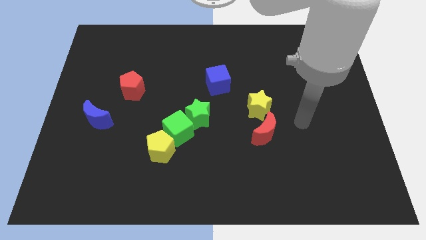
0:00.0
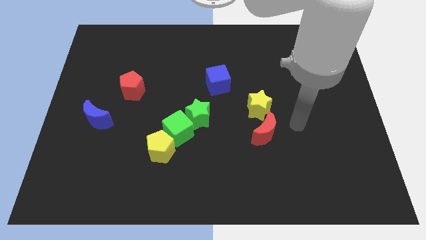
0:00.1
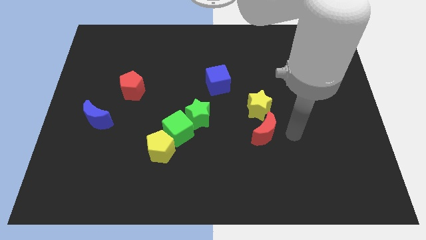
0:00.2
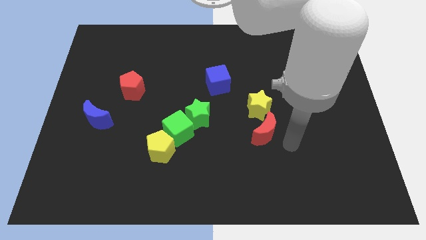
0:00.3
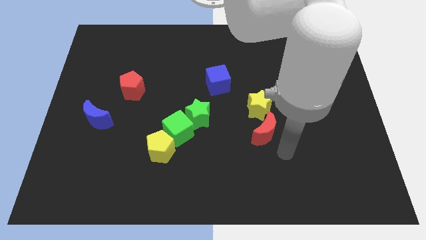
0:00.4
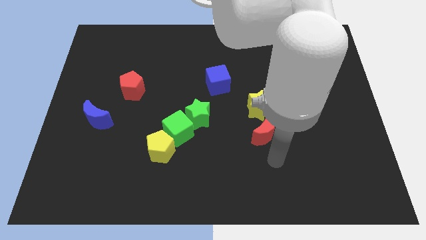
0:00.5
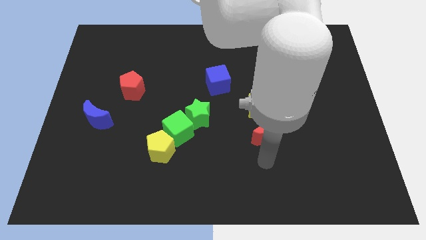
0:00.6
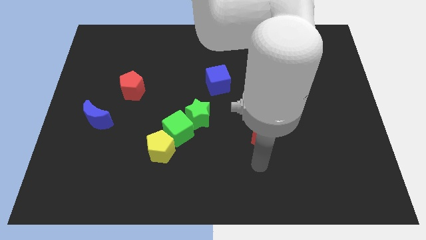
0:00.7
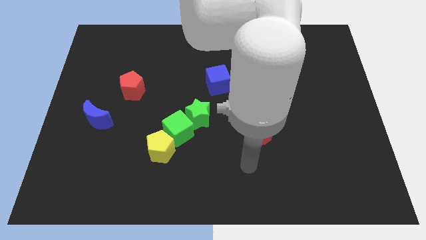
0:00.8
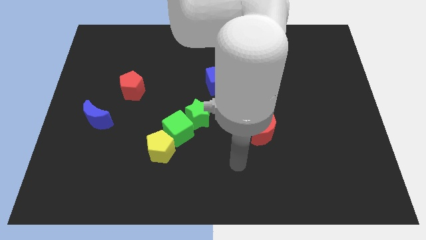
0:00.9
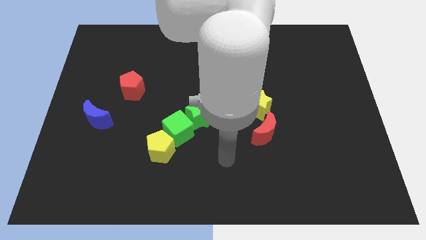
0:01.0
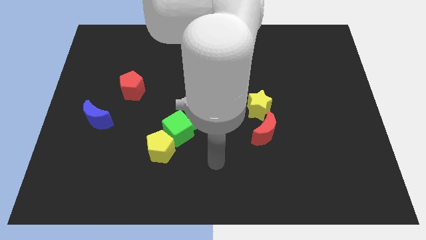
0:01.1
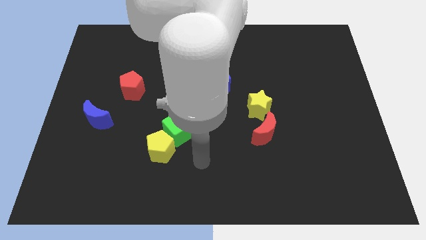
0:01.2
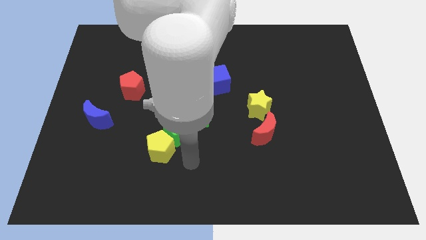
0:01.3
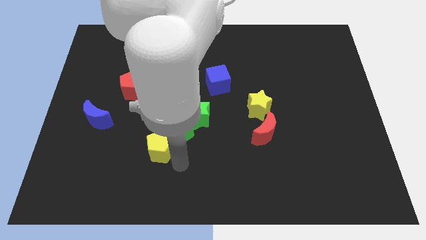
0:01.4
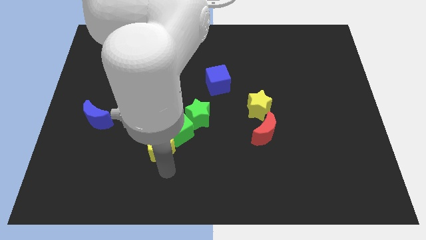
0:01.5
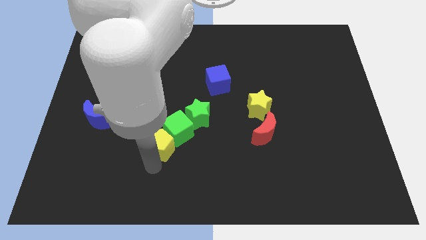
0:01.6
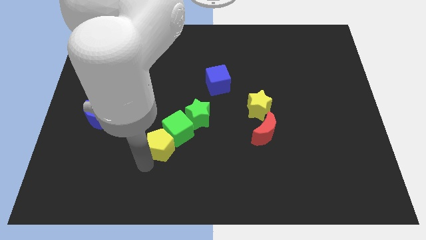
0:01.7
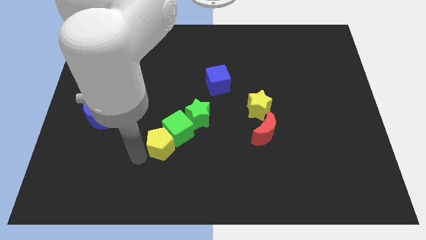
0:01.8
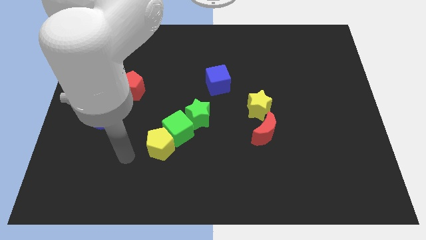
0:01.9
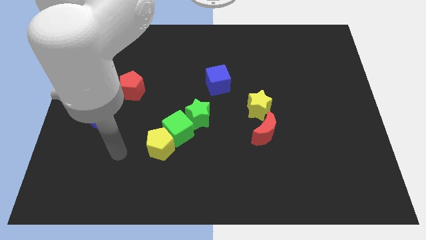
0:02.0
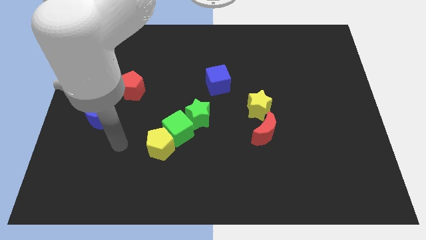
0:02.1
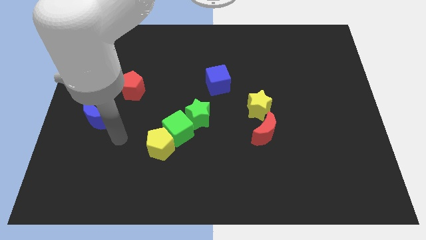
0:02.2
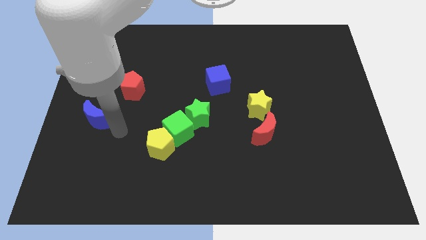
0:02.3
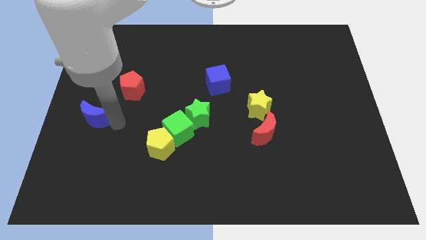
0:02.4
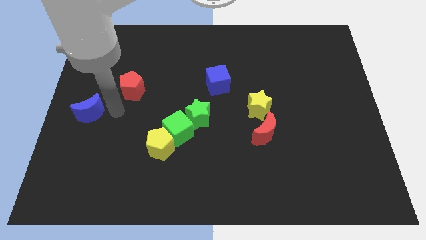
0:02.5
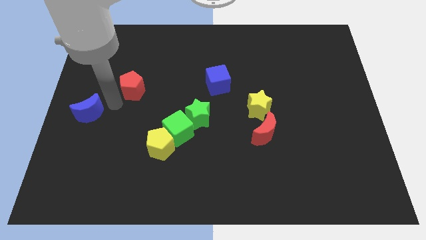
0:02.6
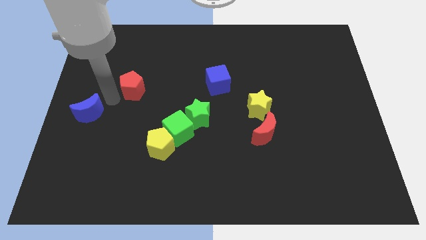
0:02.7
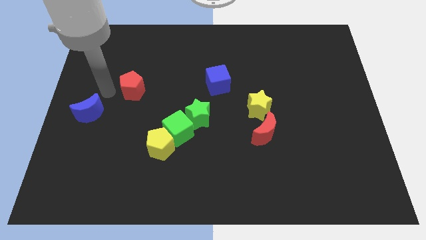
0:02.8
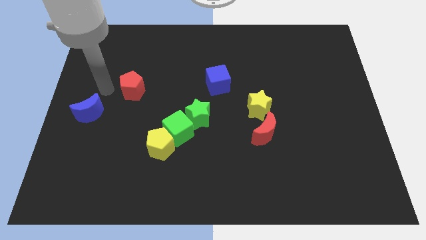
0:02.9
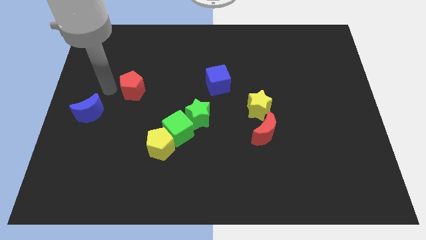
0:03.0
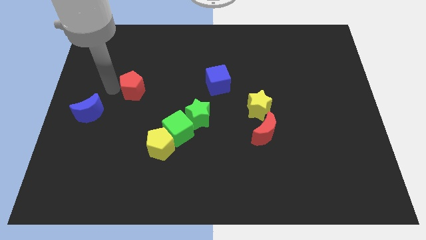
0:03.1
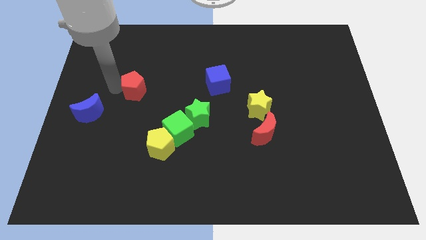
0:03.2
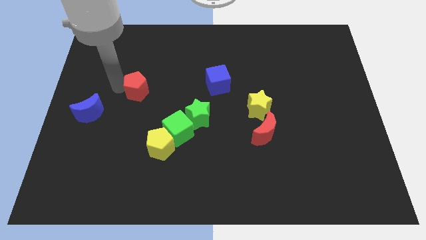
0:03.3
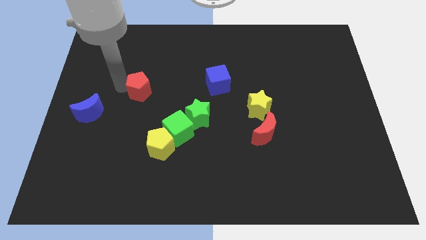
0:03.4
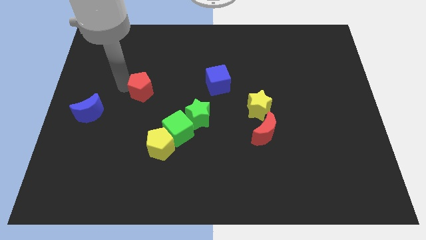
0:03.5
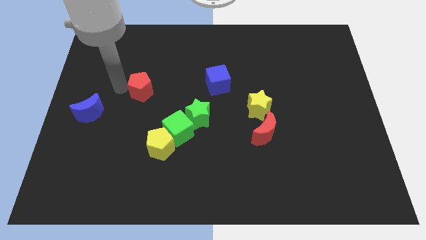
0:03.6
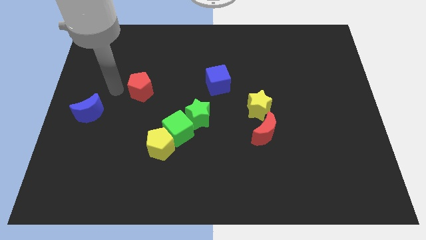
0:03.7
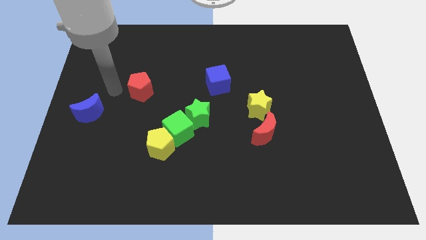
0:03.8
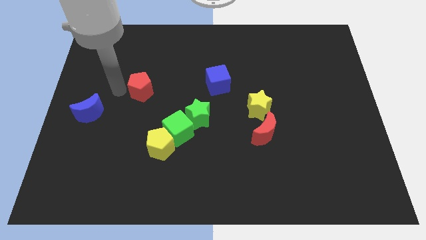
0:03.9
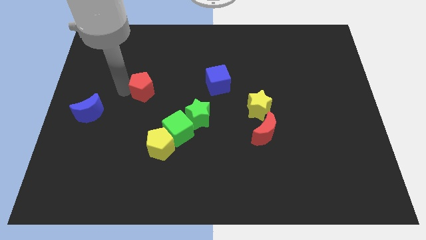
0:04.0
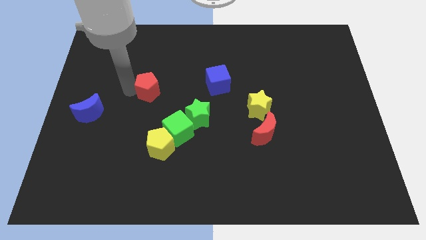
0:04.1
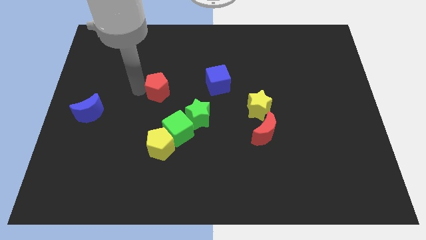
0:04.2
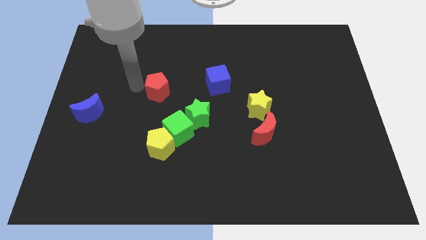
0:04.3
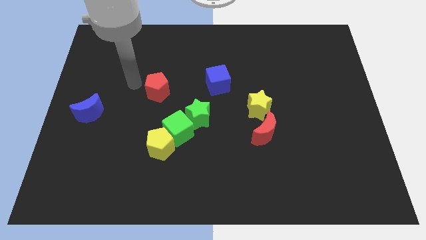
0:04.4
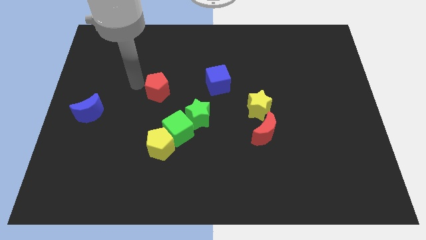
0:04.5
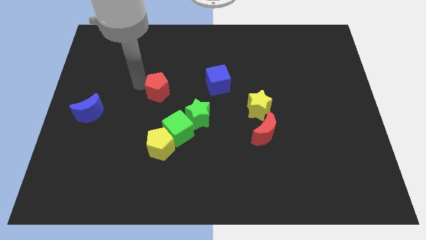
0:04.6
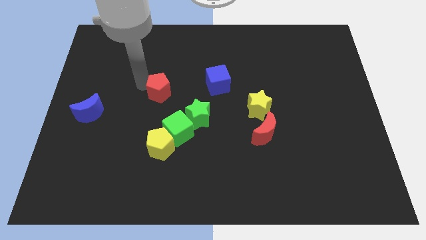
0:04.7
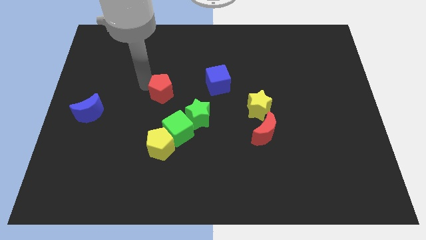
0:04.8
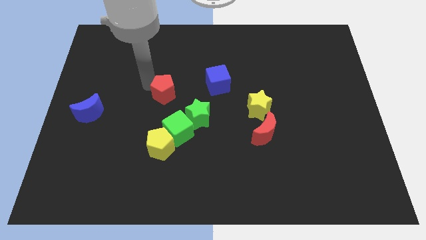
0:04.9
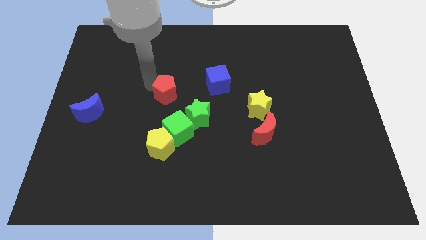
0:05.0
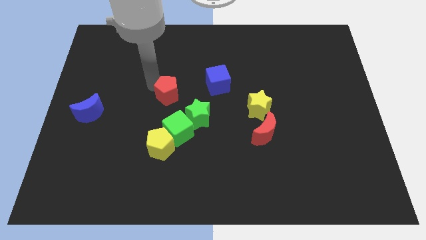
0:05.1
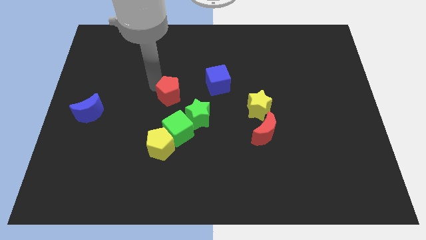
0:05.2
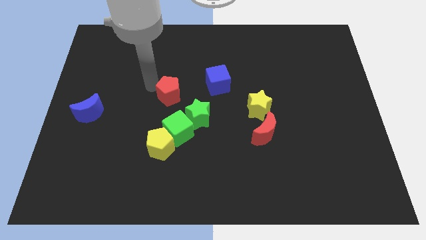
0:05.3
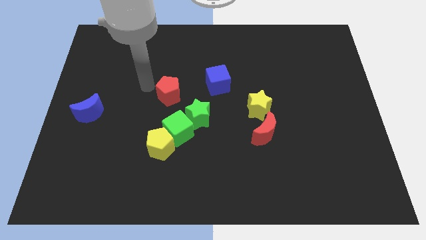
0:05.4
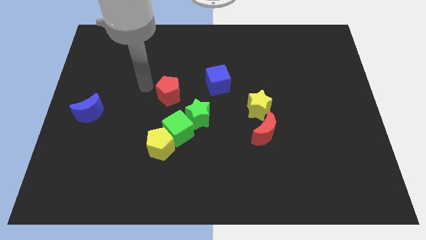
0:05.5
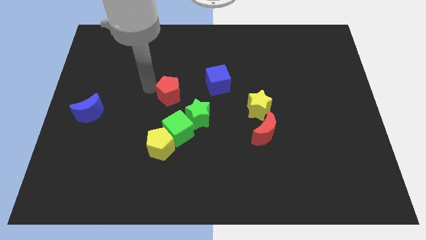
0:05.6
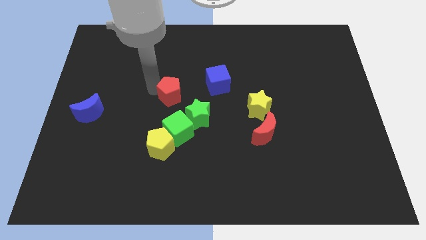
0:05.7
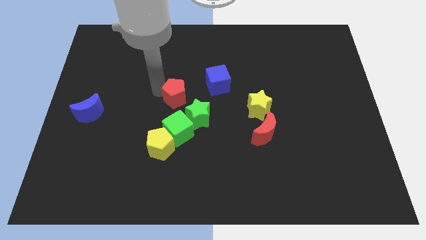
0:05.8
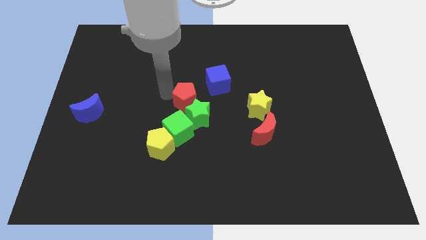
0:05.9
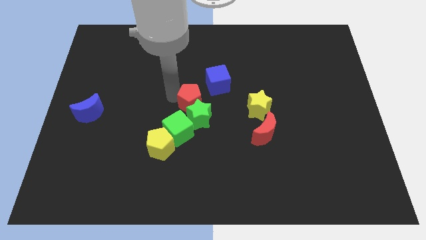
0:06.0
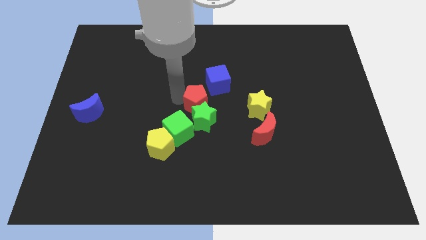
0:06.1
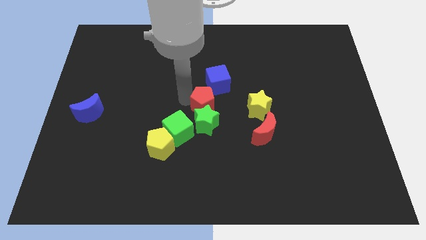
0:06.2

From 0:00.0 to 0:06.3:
move the red pentagon below the blue cube

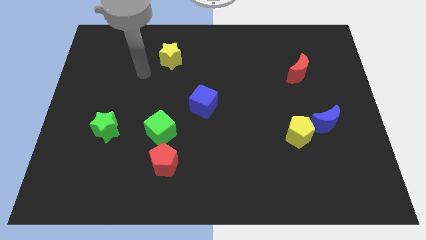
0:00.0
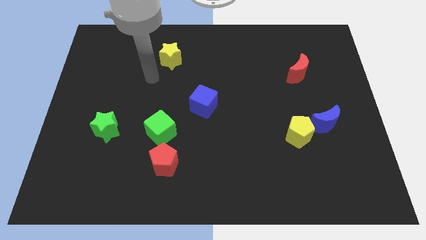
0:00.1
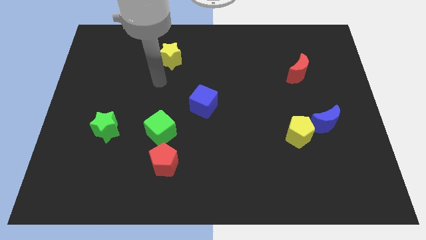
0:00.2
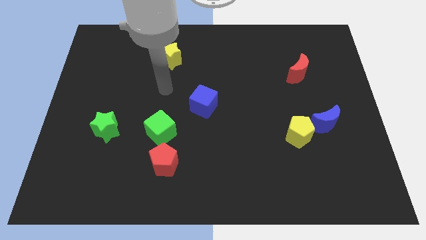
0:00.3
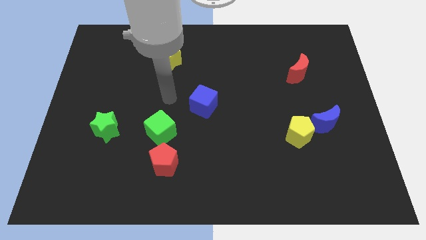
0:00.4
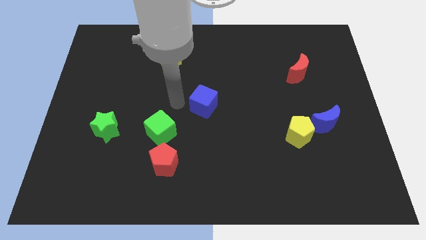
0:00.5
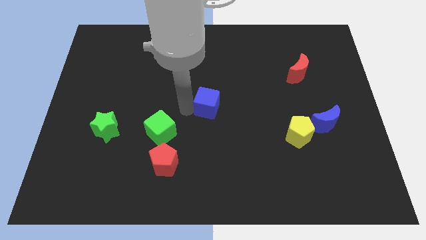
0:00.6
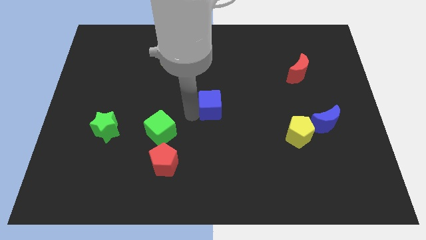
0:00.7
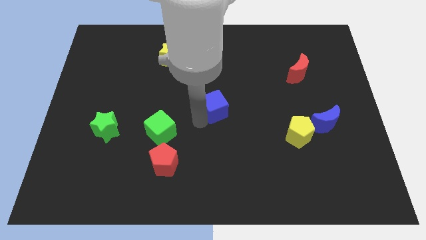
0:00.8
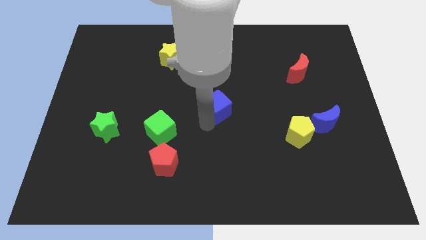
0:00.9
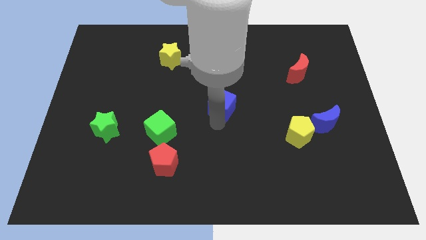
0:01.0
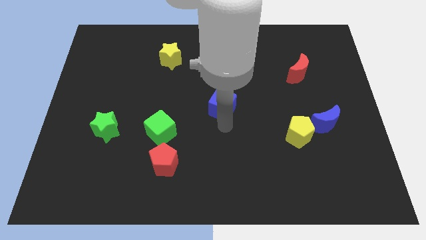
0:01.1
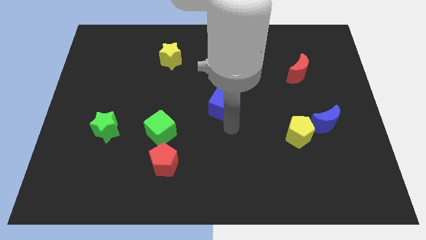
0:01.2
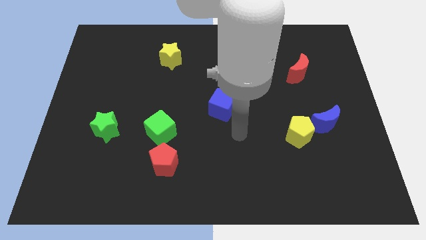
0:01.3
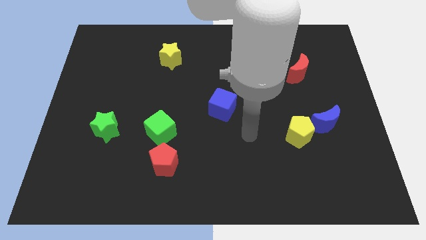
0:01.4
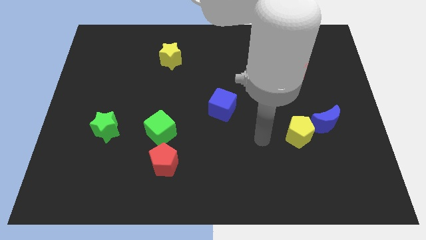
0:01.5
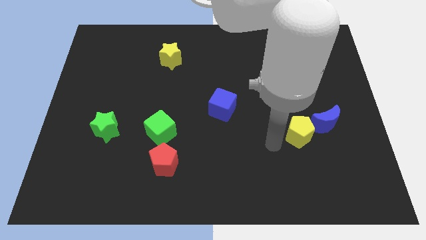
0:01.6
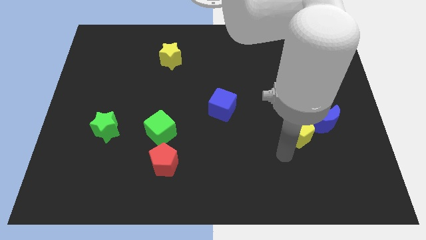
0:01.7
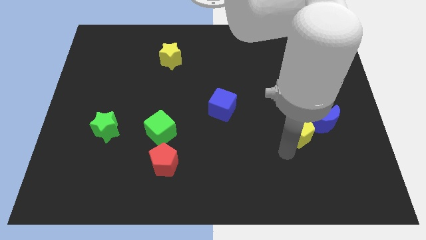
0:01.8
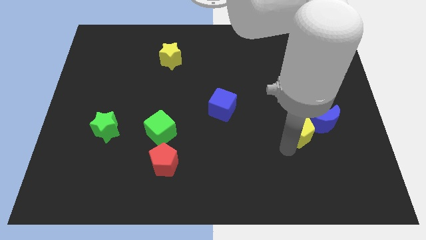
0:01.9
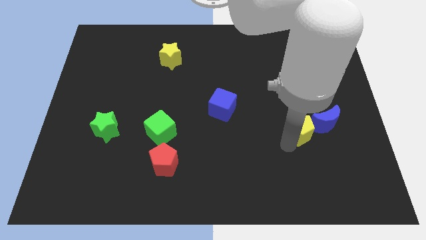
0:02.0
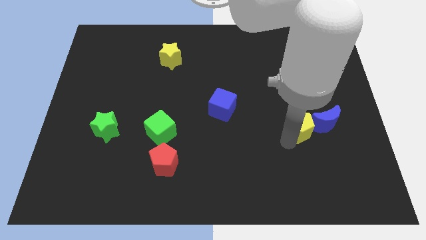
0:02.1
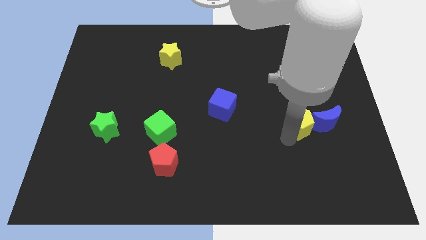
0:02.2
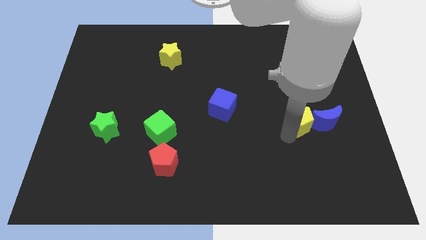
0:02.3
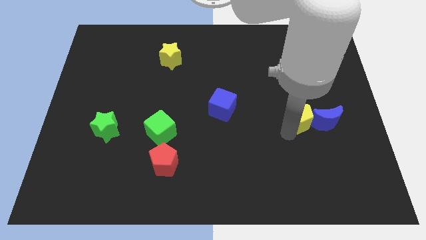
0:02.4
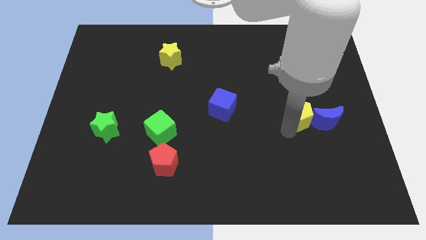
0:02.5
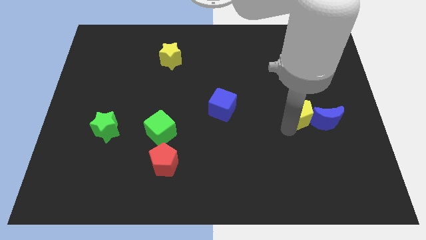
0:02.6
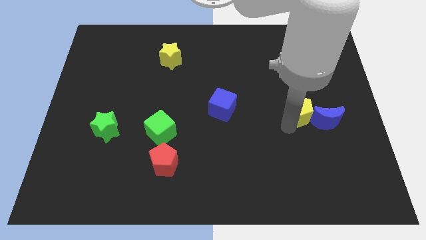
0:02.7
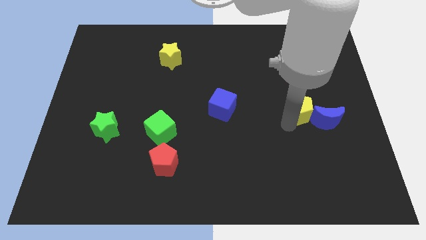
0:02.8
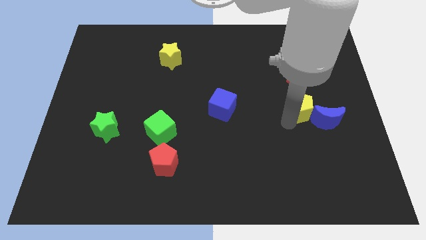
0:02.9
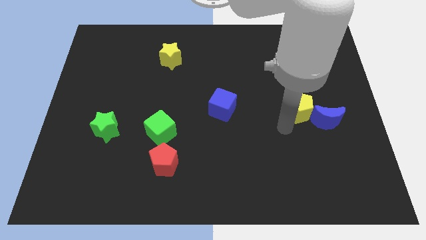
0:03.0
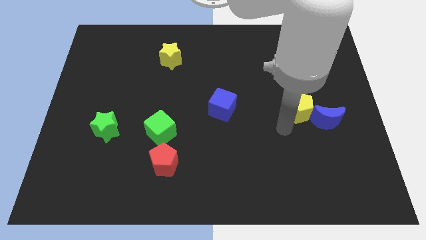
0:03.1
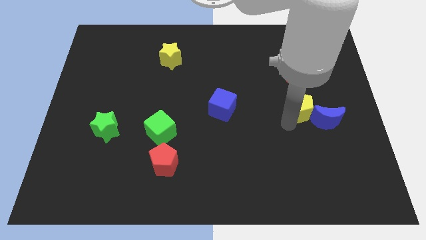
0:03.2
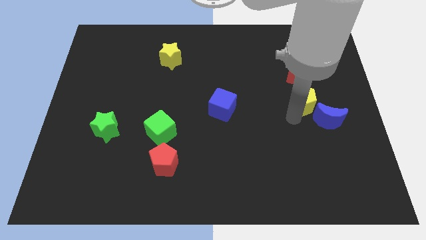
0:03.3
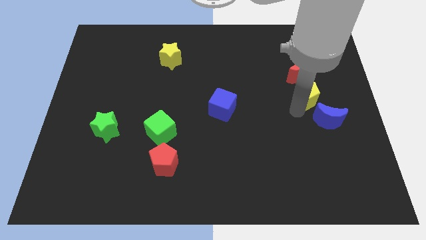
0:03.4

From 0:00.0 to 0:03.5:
push the yellow pentagon above the blue moon
